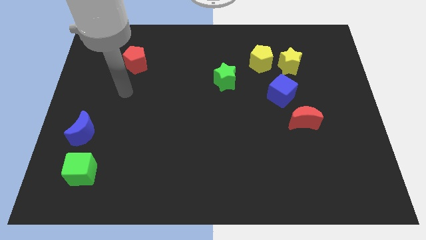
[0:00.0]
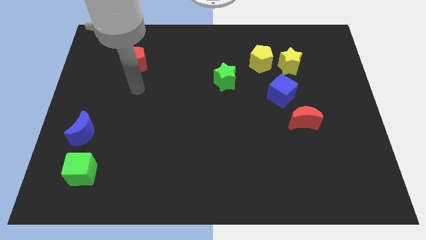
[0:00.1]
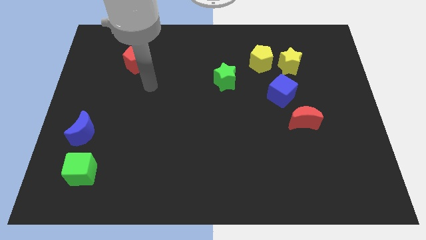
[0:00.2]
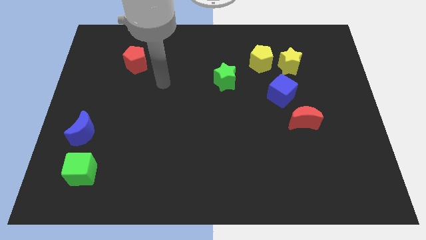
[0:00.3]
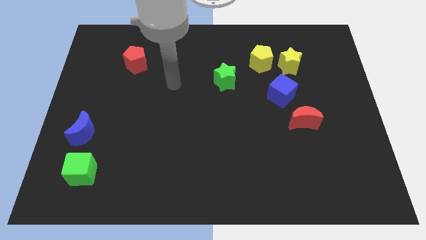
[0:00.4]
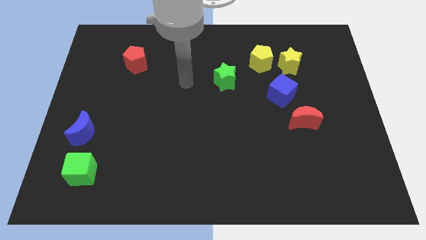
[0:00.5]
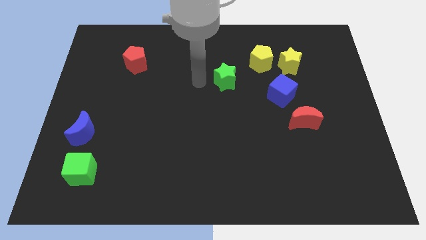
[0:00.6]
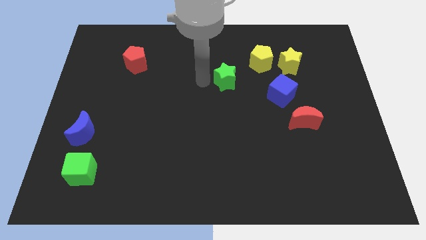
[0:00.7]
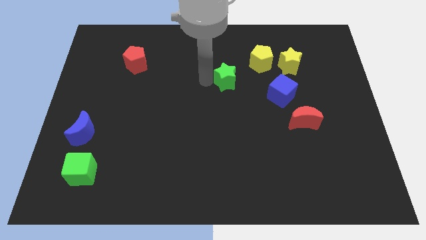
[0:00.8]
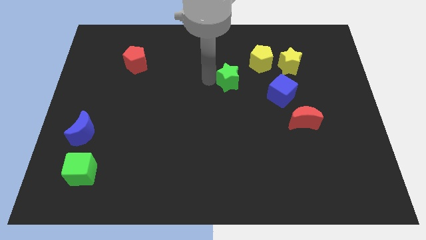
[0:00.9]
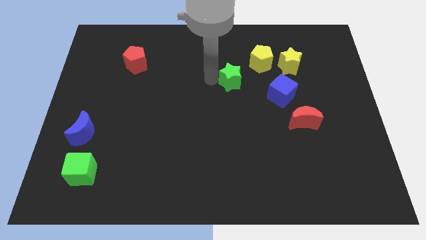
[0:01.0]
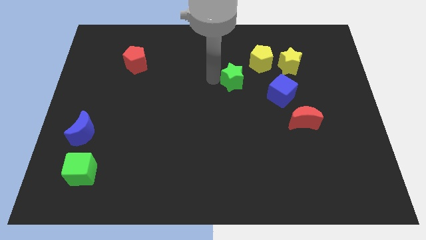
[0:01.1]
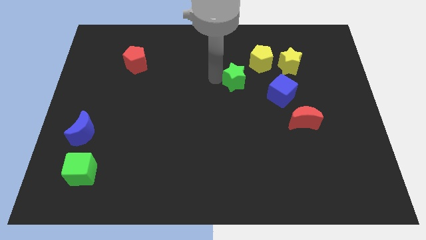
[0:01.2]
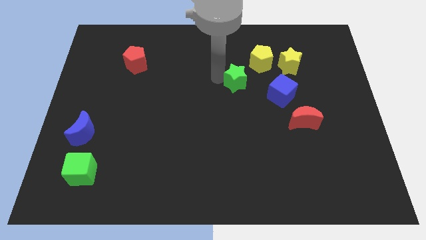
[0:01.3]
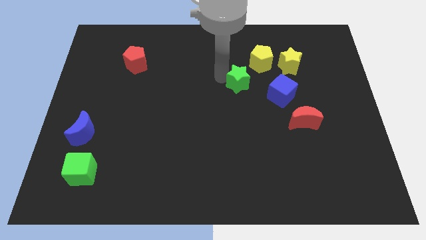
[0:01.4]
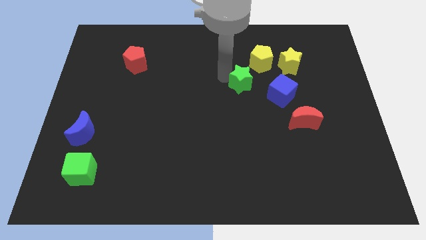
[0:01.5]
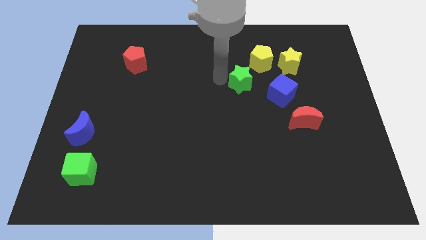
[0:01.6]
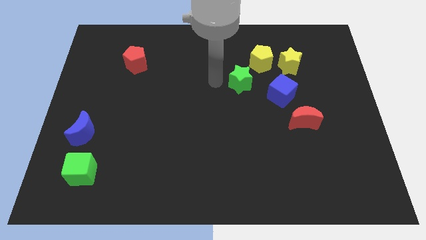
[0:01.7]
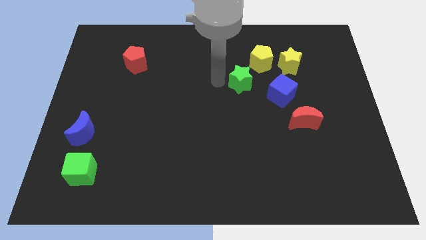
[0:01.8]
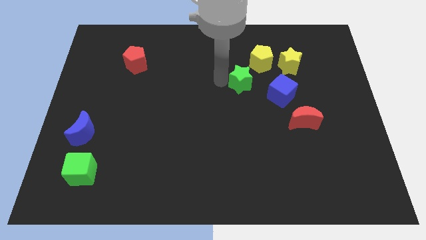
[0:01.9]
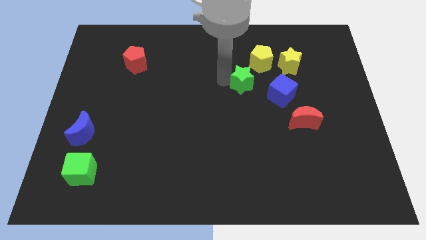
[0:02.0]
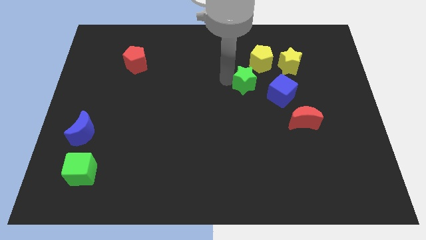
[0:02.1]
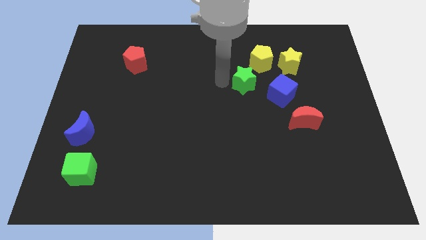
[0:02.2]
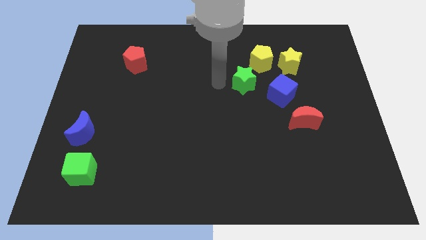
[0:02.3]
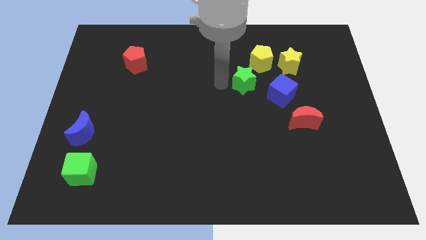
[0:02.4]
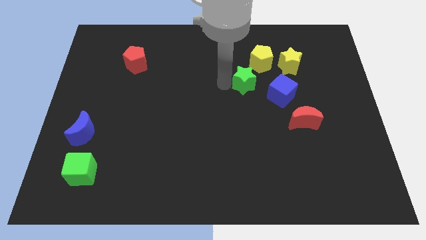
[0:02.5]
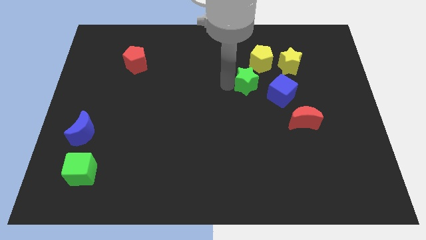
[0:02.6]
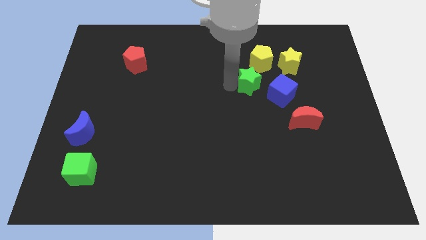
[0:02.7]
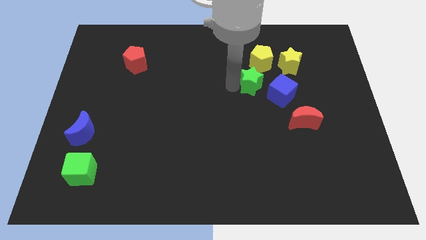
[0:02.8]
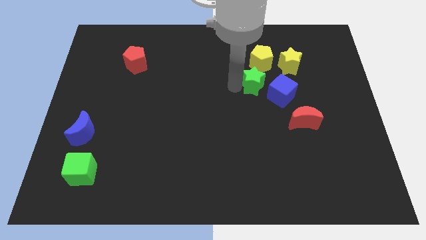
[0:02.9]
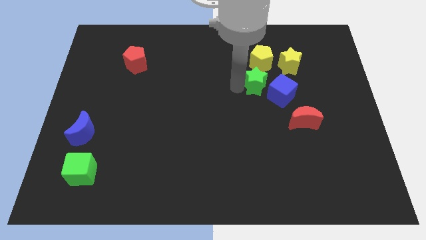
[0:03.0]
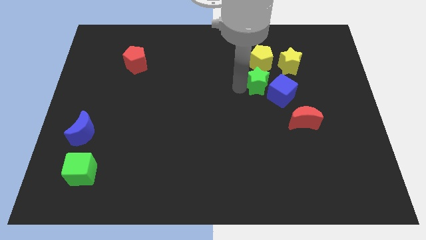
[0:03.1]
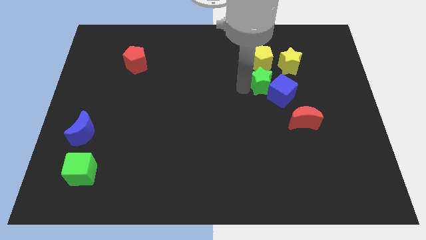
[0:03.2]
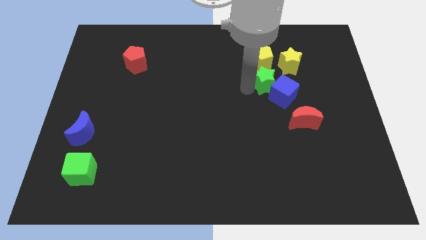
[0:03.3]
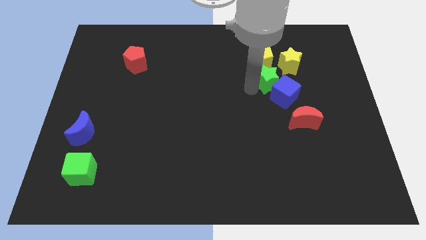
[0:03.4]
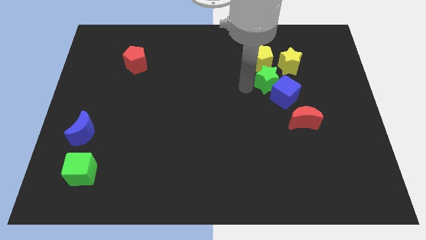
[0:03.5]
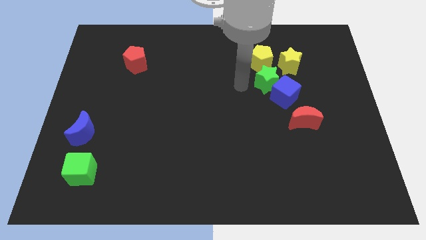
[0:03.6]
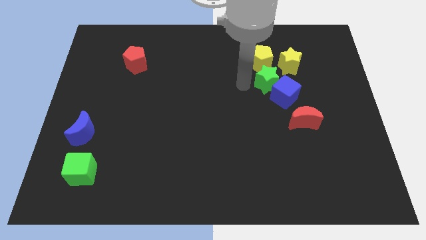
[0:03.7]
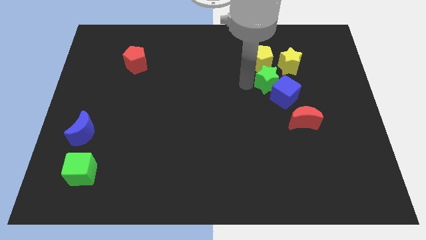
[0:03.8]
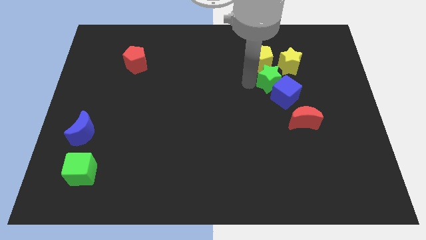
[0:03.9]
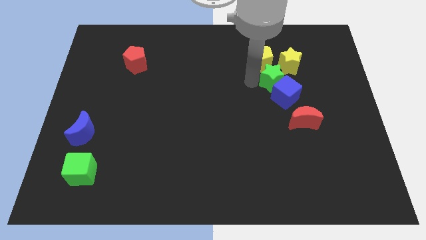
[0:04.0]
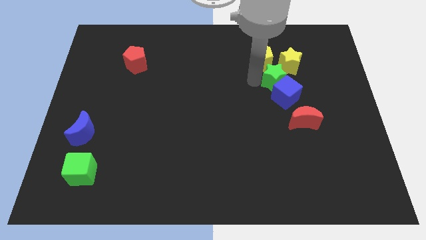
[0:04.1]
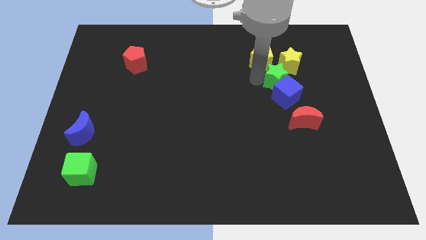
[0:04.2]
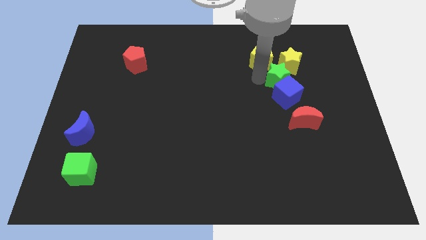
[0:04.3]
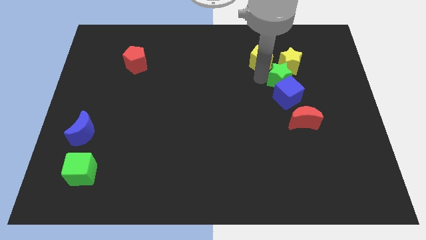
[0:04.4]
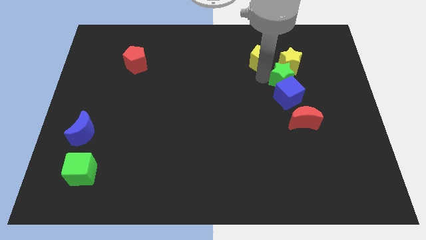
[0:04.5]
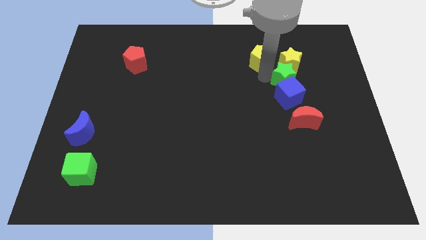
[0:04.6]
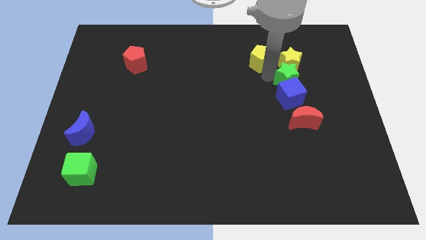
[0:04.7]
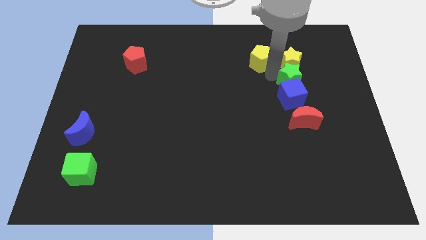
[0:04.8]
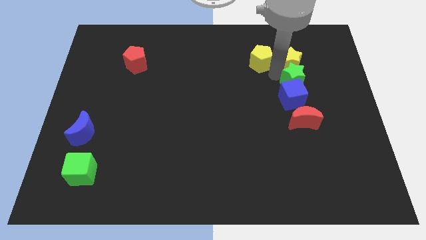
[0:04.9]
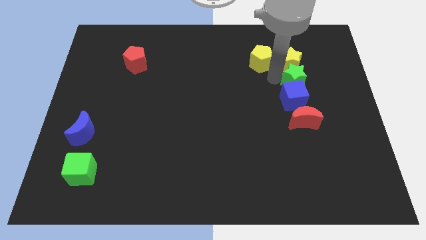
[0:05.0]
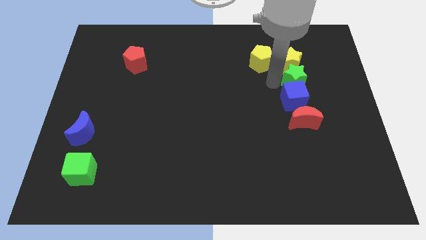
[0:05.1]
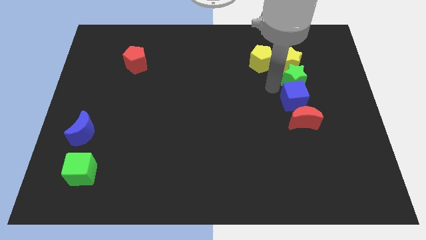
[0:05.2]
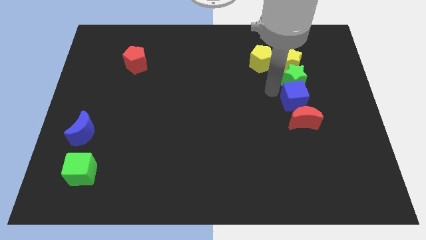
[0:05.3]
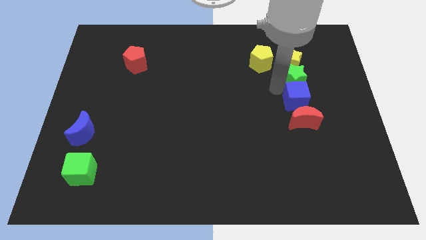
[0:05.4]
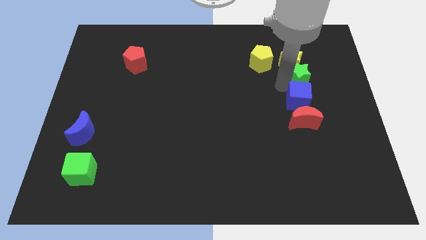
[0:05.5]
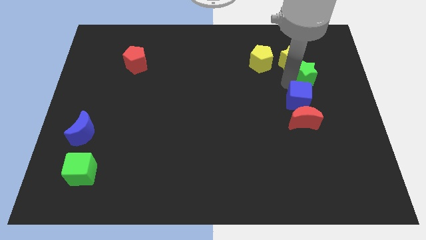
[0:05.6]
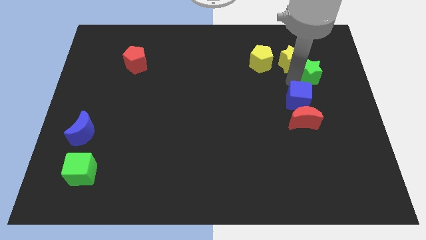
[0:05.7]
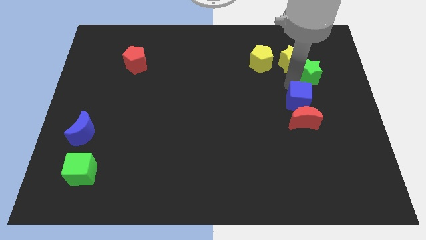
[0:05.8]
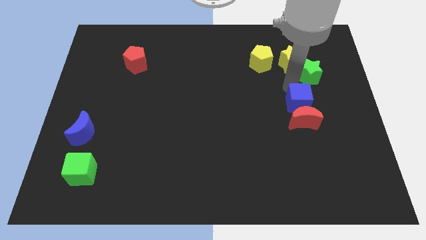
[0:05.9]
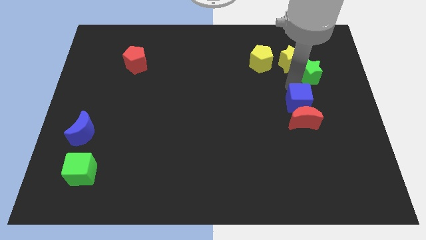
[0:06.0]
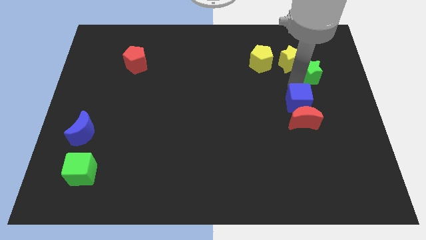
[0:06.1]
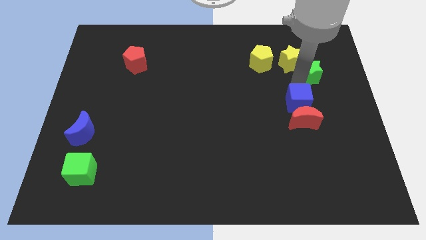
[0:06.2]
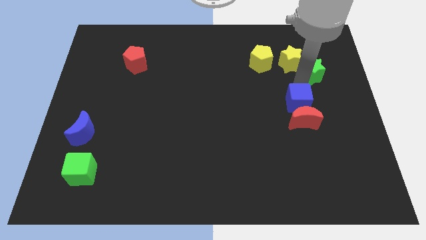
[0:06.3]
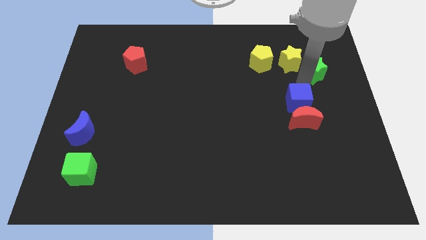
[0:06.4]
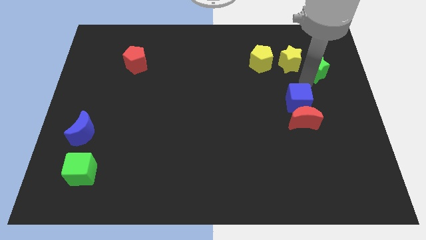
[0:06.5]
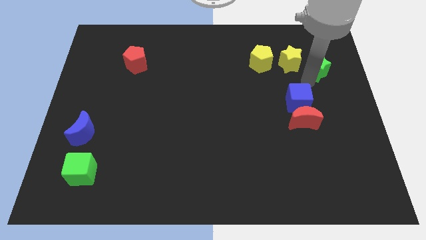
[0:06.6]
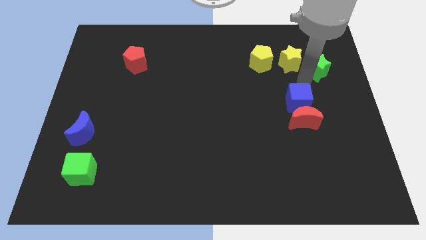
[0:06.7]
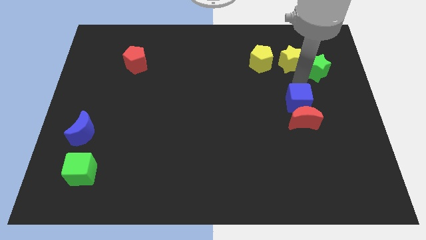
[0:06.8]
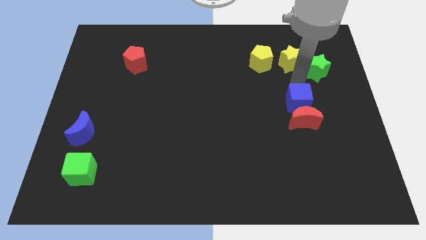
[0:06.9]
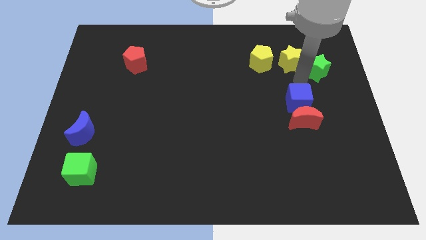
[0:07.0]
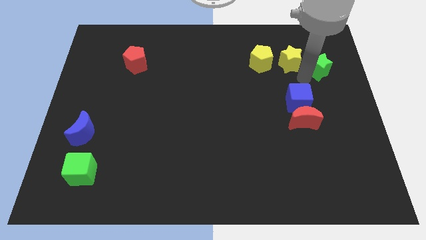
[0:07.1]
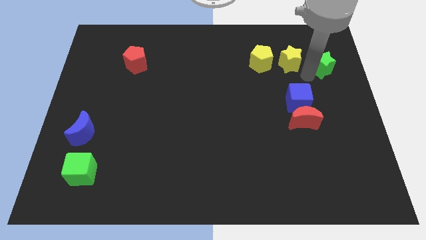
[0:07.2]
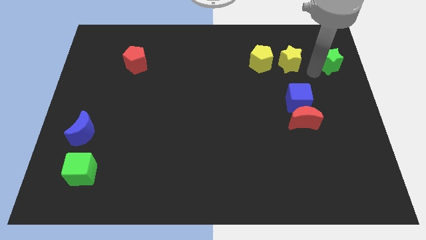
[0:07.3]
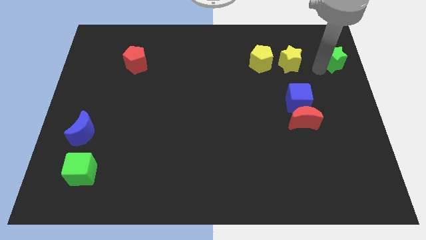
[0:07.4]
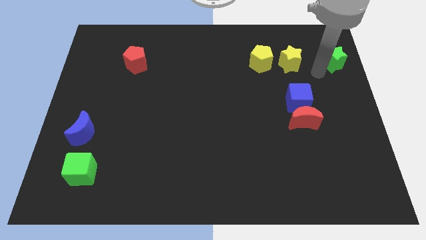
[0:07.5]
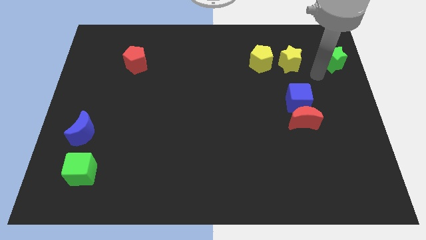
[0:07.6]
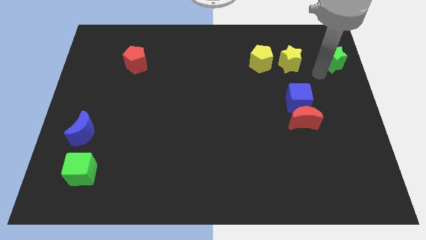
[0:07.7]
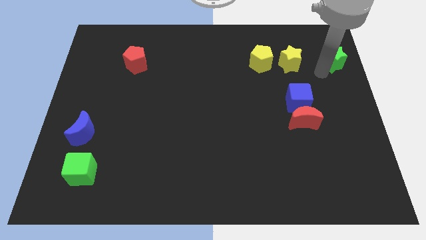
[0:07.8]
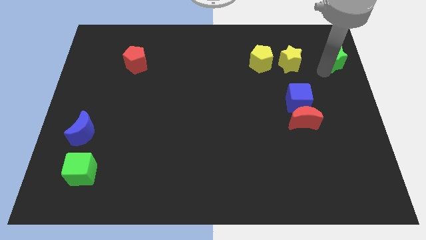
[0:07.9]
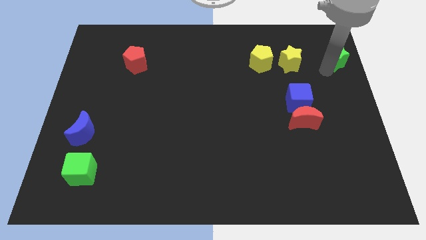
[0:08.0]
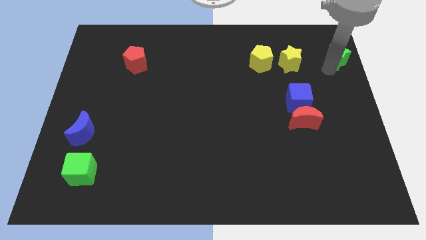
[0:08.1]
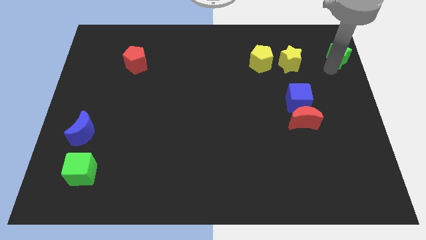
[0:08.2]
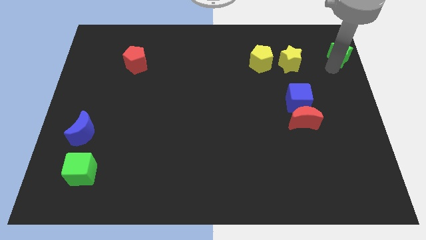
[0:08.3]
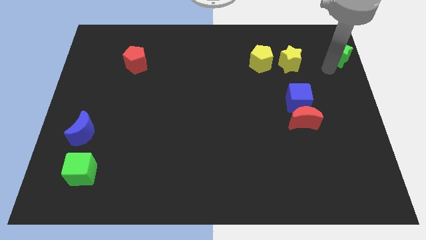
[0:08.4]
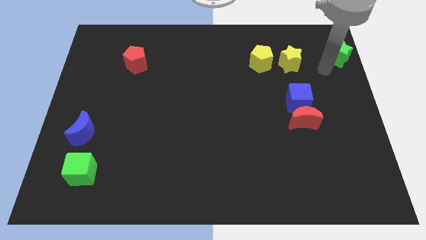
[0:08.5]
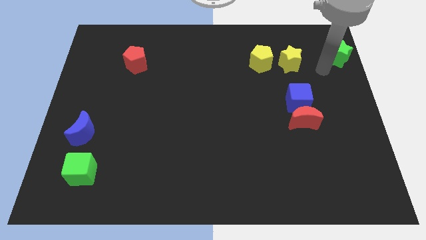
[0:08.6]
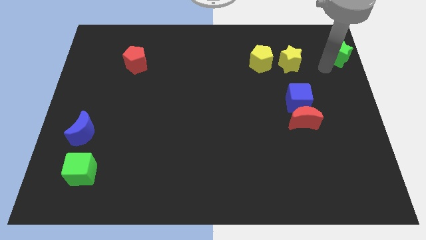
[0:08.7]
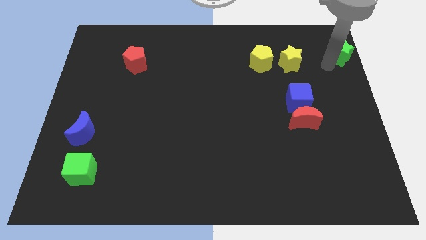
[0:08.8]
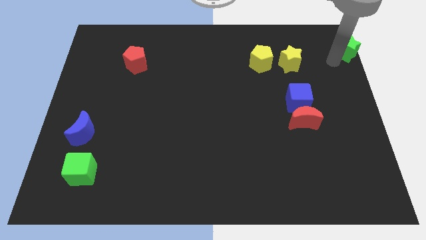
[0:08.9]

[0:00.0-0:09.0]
slide the green star to the top right corner
